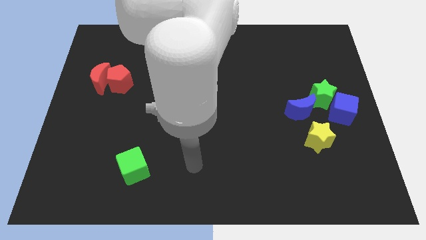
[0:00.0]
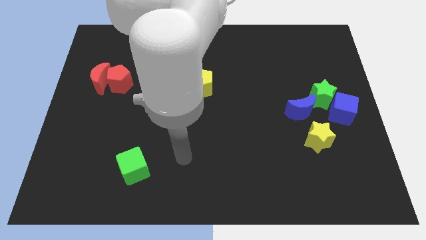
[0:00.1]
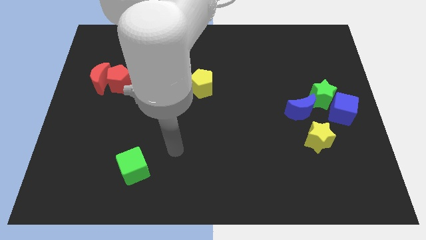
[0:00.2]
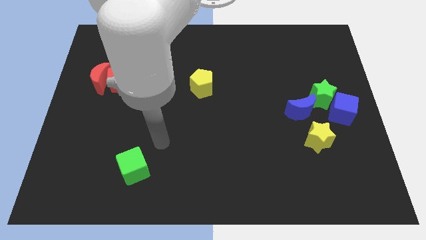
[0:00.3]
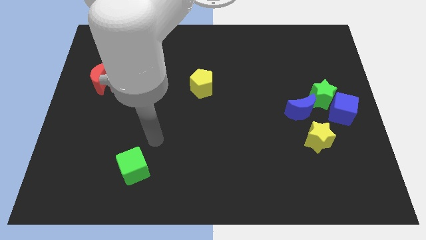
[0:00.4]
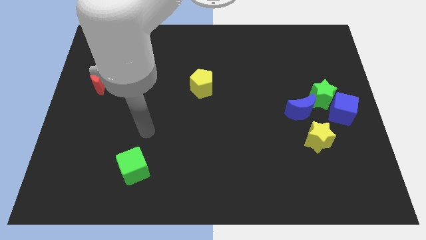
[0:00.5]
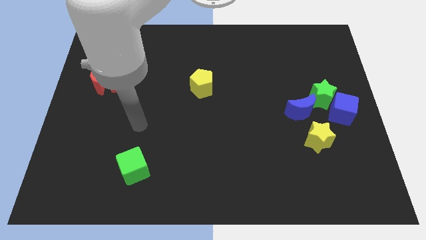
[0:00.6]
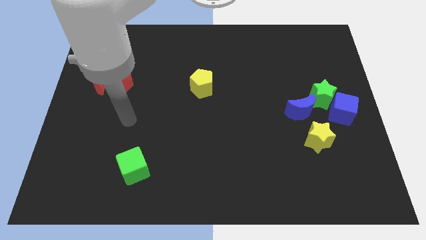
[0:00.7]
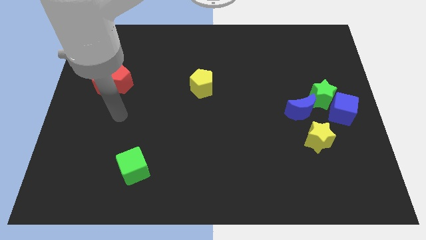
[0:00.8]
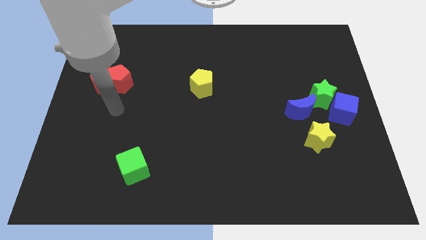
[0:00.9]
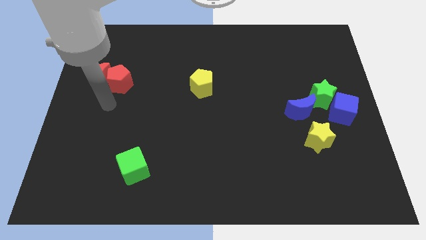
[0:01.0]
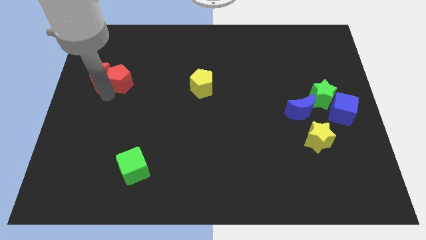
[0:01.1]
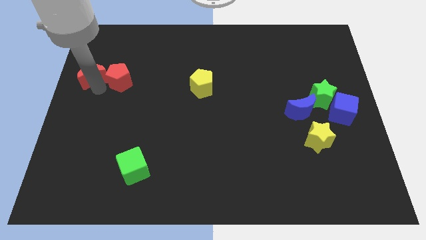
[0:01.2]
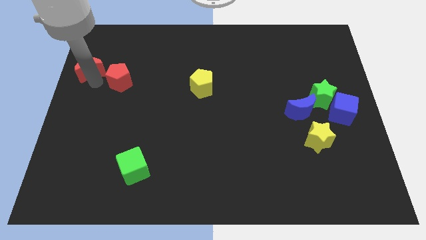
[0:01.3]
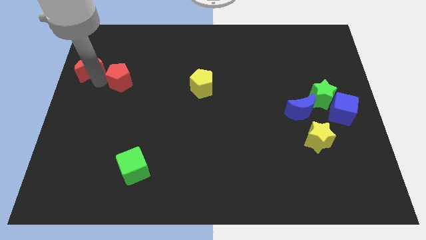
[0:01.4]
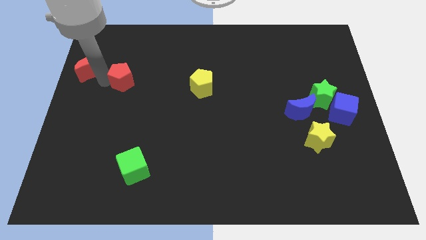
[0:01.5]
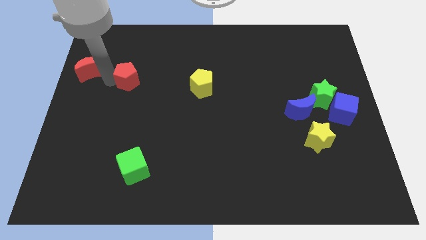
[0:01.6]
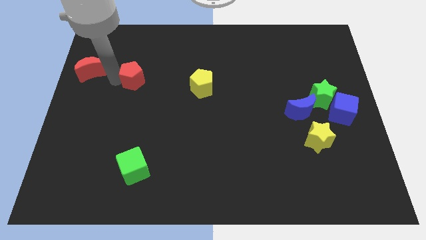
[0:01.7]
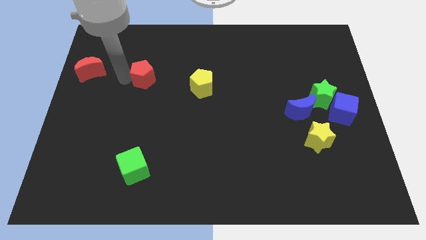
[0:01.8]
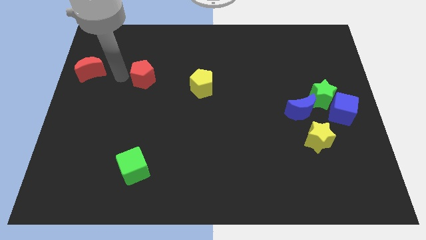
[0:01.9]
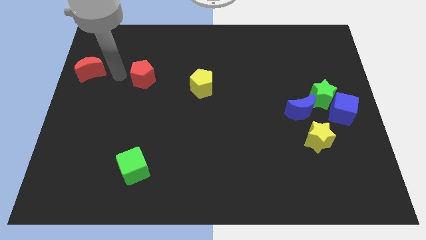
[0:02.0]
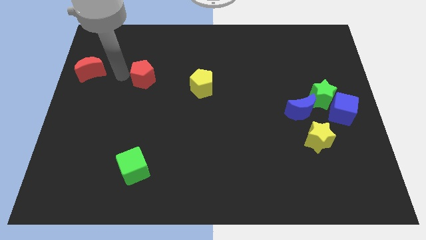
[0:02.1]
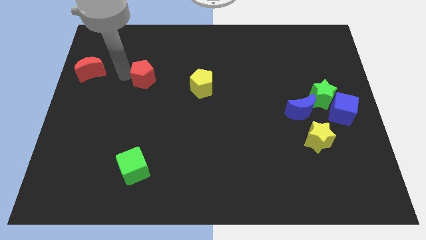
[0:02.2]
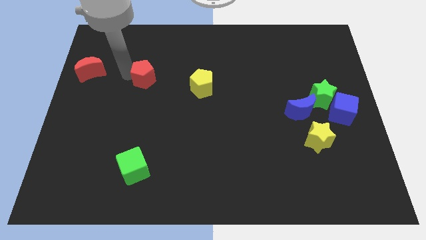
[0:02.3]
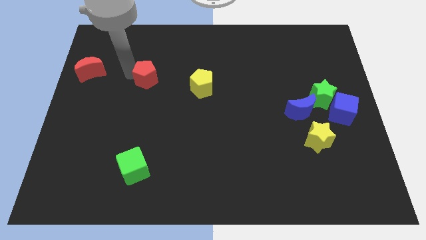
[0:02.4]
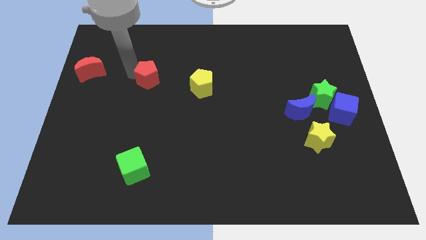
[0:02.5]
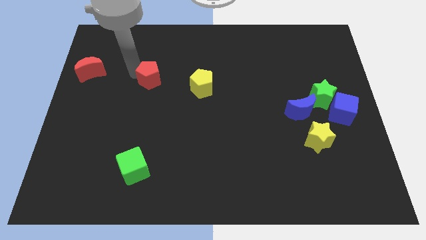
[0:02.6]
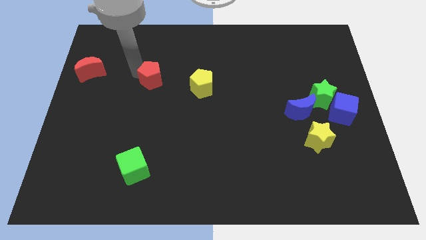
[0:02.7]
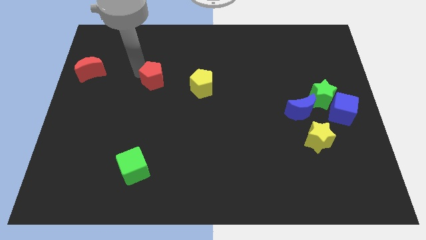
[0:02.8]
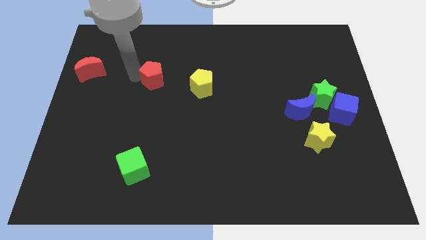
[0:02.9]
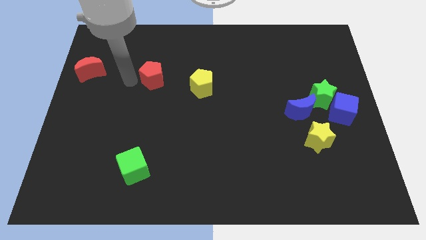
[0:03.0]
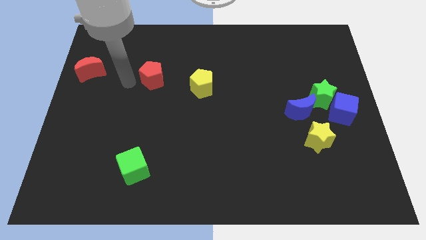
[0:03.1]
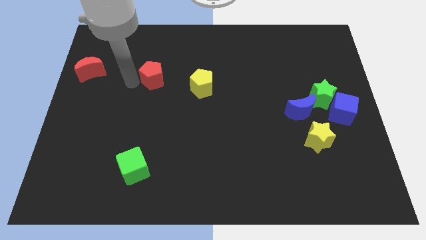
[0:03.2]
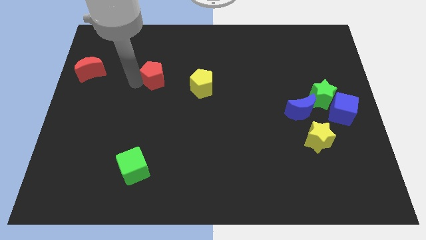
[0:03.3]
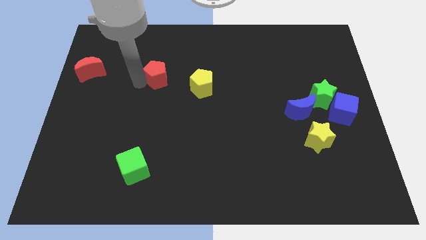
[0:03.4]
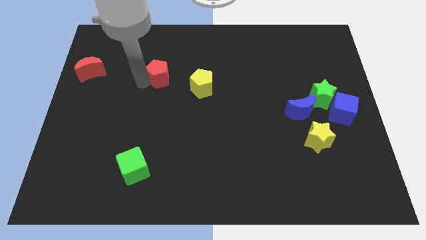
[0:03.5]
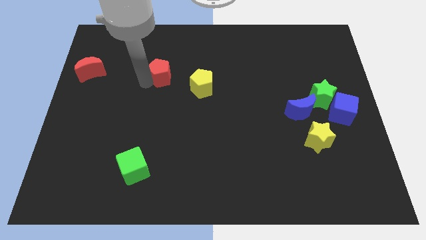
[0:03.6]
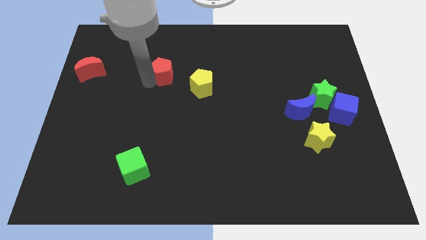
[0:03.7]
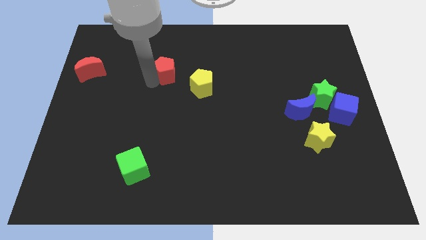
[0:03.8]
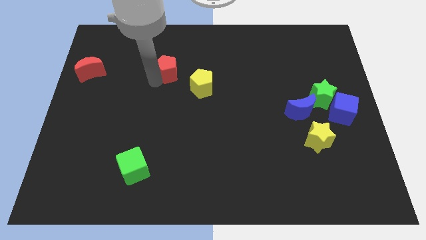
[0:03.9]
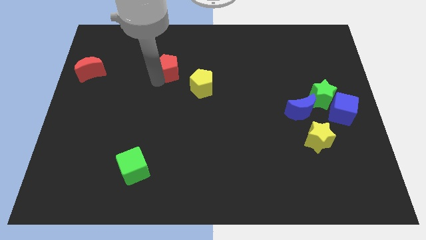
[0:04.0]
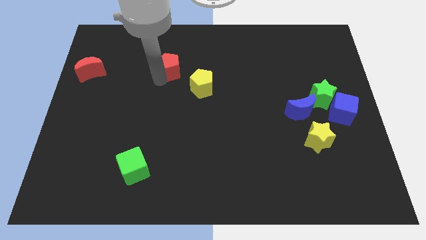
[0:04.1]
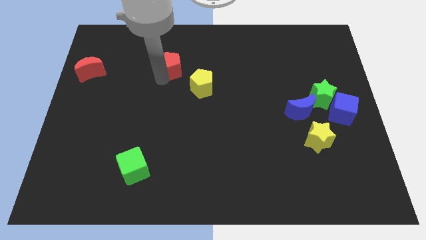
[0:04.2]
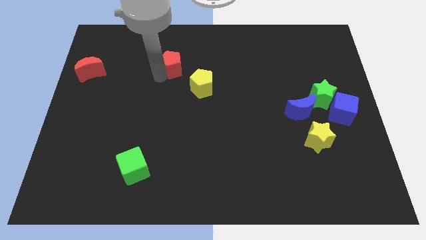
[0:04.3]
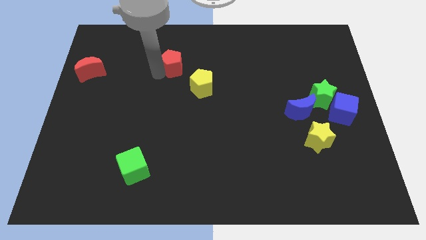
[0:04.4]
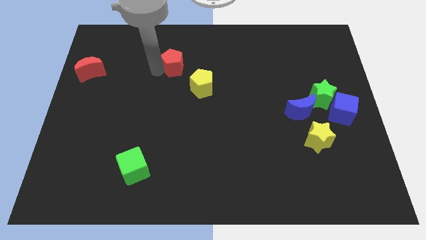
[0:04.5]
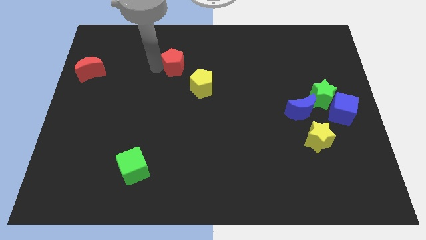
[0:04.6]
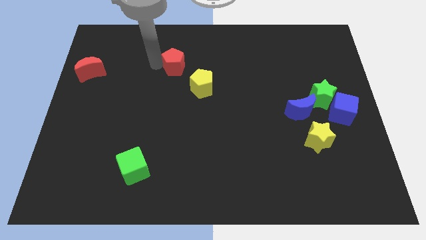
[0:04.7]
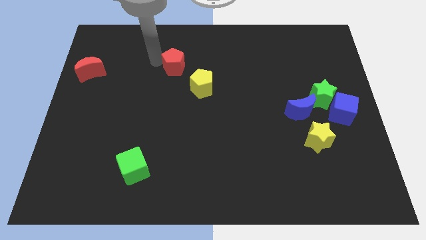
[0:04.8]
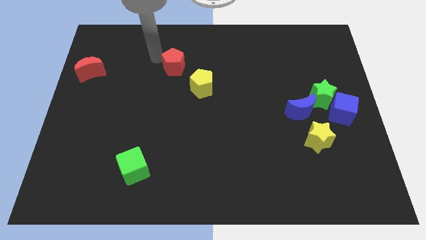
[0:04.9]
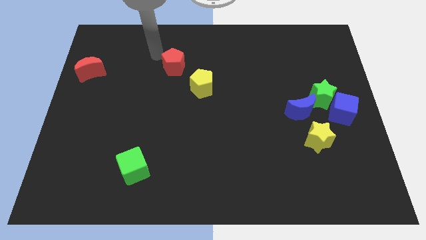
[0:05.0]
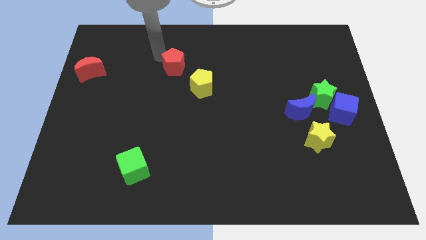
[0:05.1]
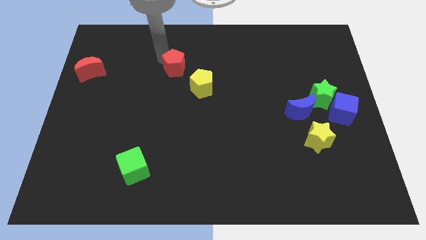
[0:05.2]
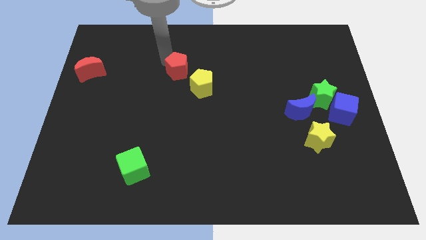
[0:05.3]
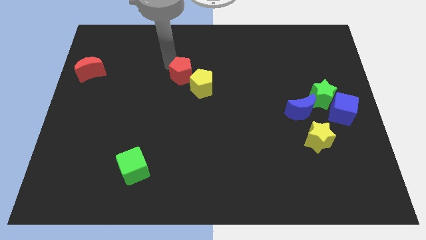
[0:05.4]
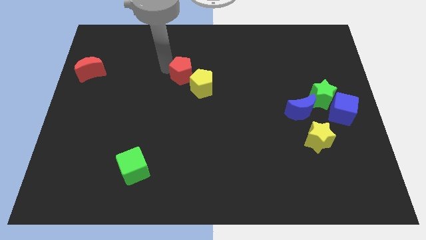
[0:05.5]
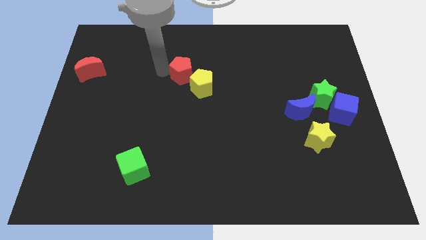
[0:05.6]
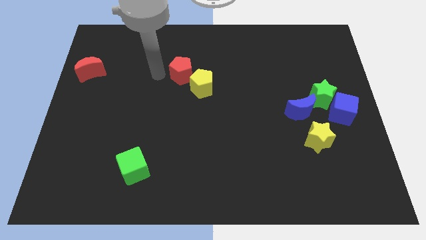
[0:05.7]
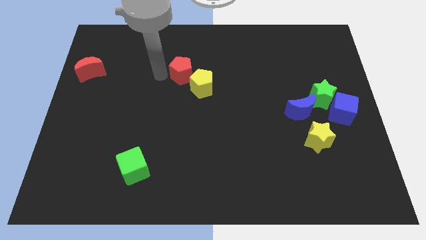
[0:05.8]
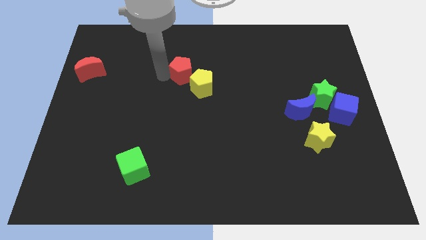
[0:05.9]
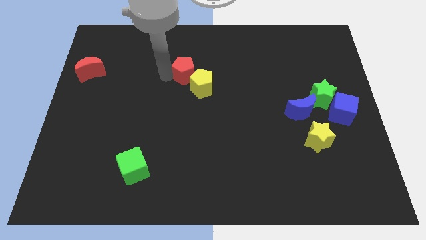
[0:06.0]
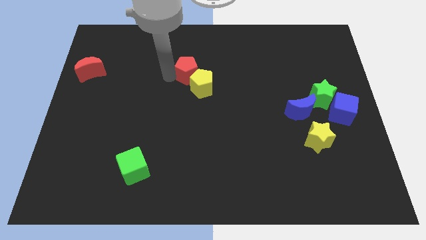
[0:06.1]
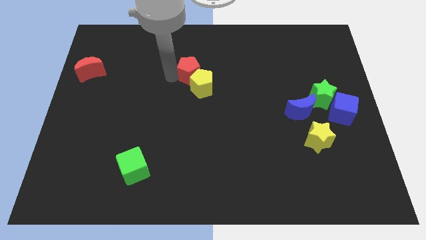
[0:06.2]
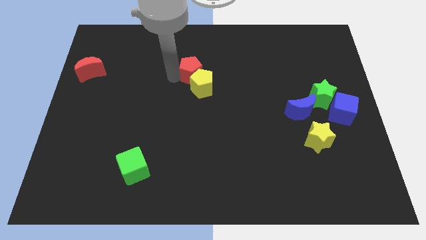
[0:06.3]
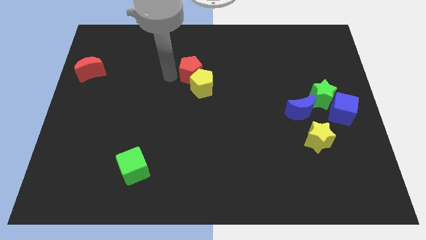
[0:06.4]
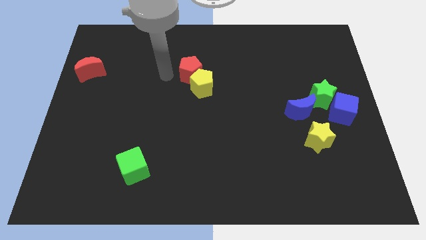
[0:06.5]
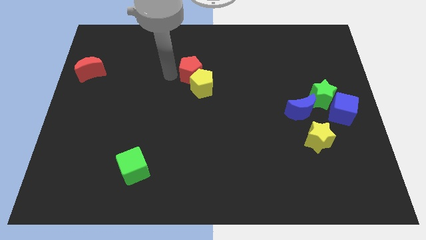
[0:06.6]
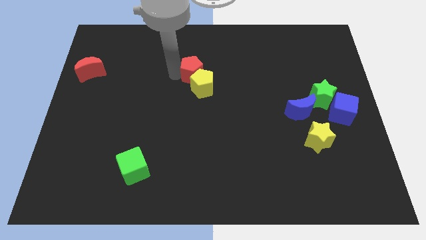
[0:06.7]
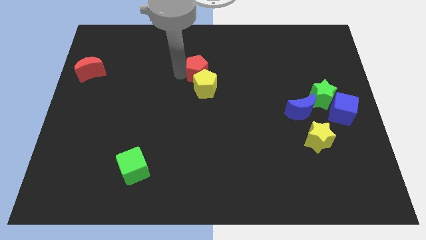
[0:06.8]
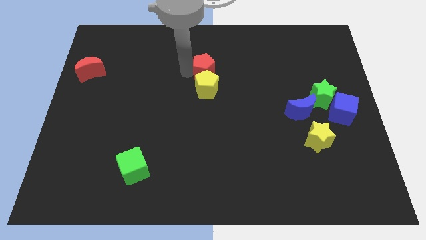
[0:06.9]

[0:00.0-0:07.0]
move the red pentagon to the right

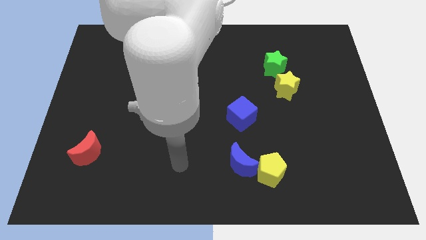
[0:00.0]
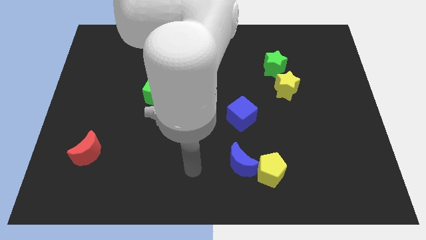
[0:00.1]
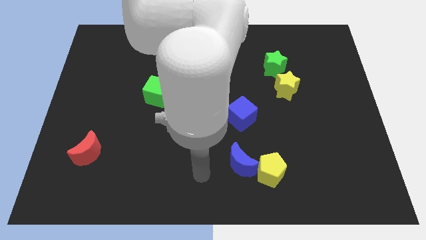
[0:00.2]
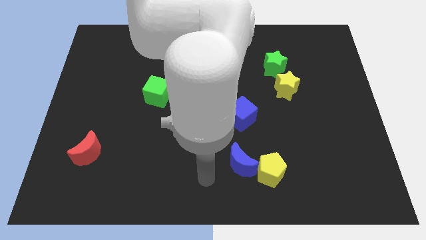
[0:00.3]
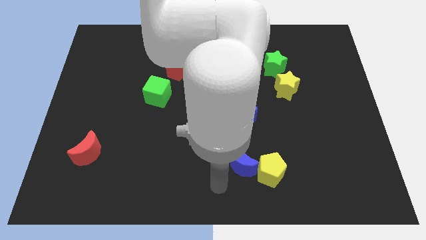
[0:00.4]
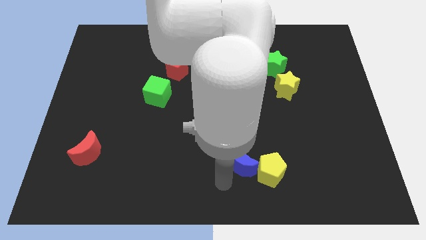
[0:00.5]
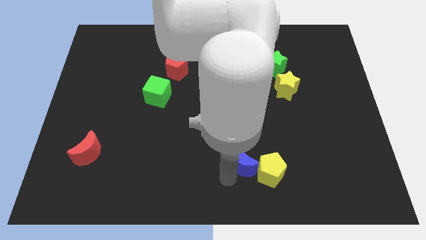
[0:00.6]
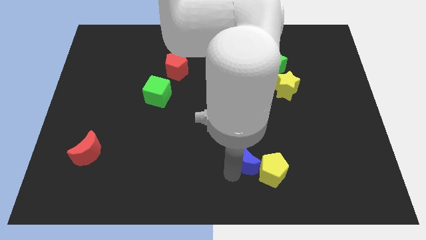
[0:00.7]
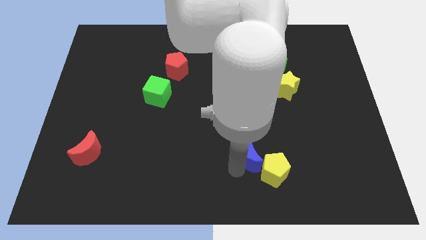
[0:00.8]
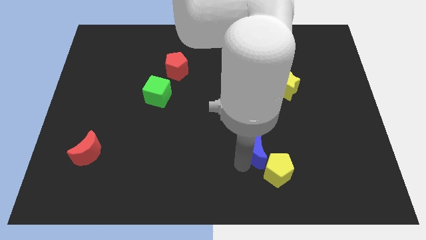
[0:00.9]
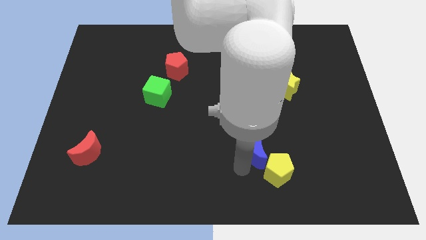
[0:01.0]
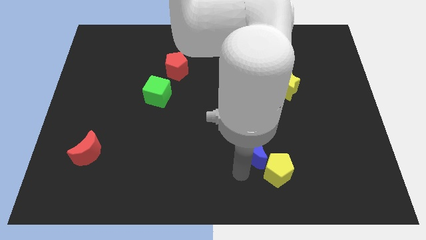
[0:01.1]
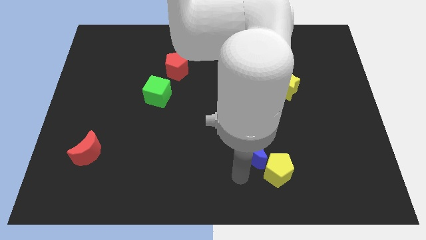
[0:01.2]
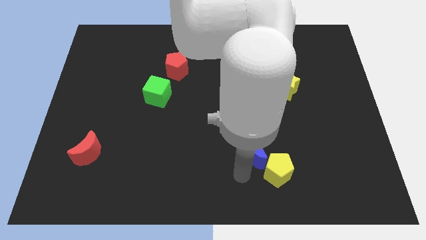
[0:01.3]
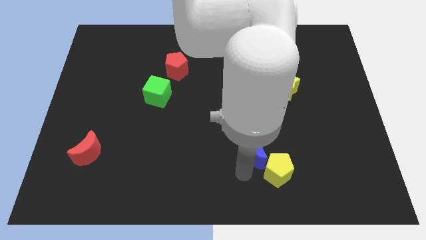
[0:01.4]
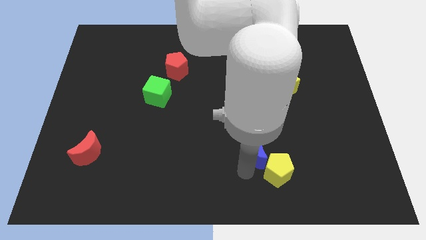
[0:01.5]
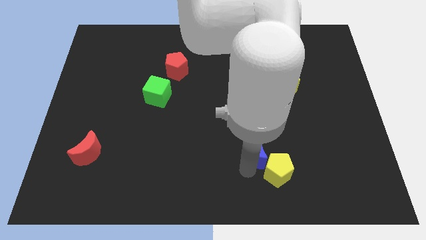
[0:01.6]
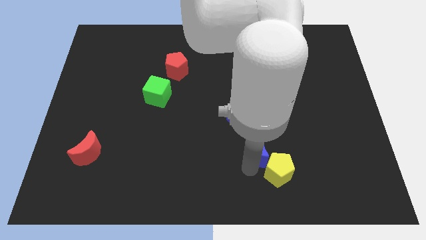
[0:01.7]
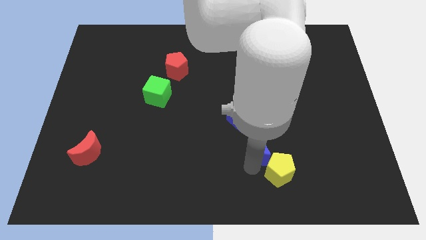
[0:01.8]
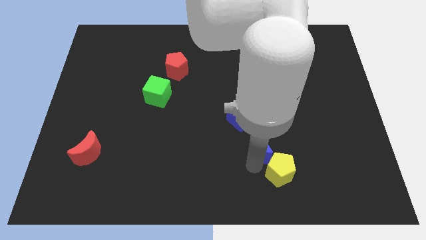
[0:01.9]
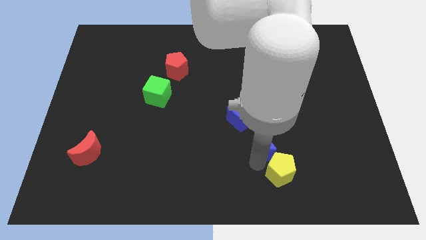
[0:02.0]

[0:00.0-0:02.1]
push the blue moon a little upwards and right diagonally
